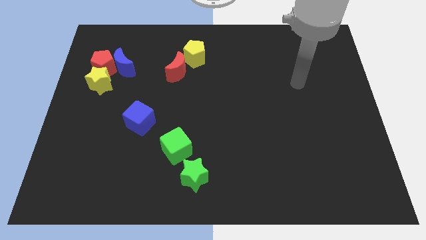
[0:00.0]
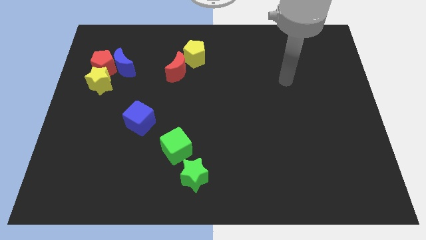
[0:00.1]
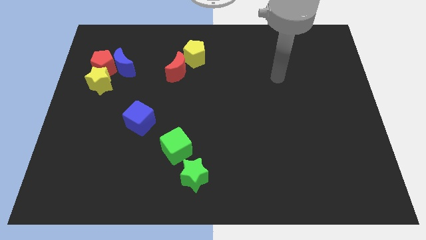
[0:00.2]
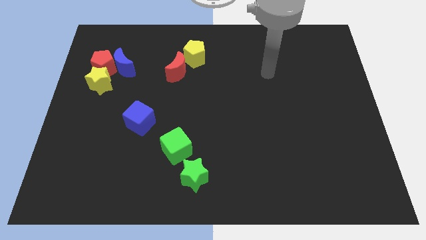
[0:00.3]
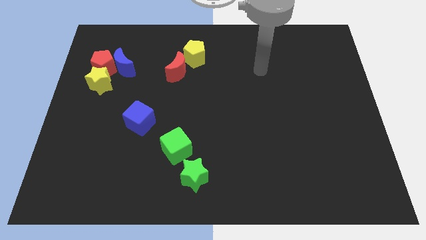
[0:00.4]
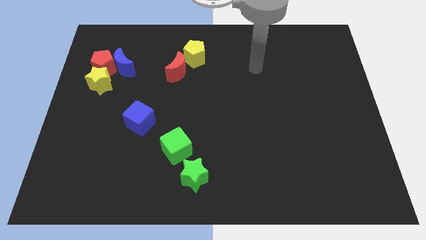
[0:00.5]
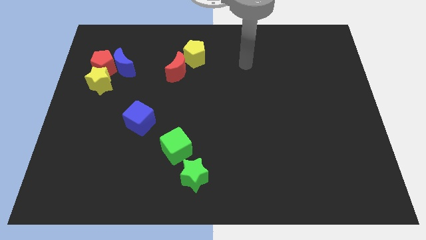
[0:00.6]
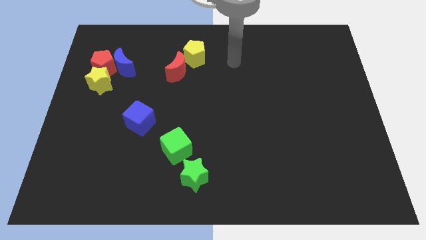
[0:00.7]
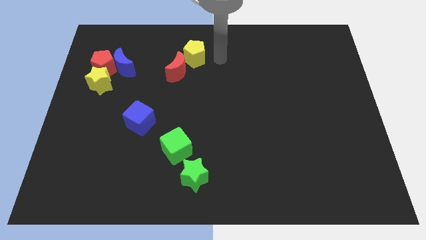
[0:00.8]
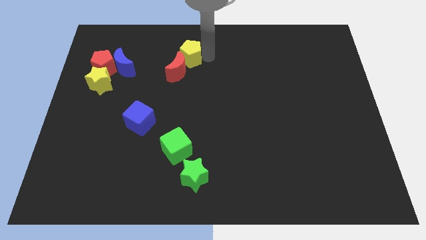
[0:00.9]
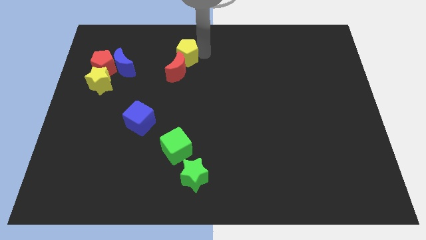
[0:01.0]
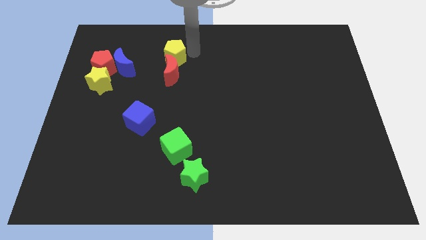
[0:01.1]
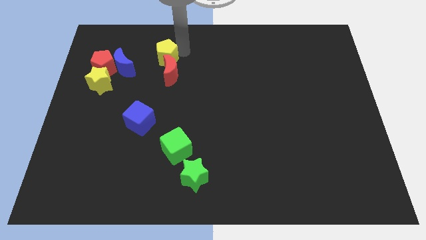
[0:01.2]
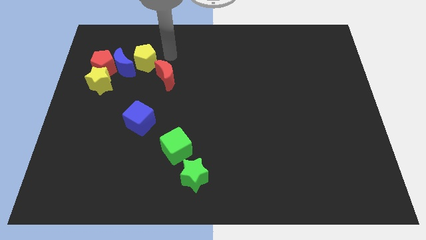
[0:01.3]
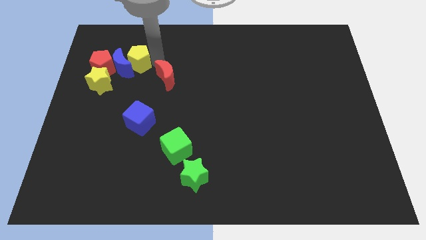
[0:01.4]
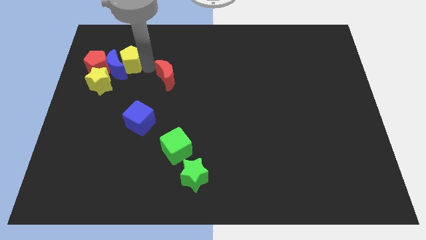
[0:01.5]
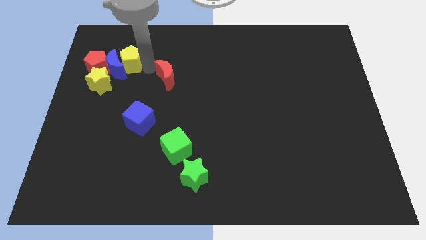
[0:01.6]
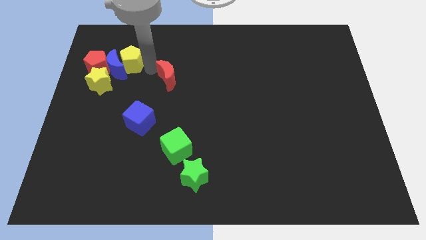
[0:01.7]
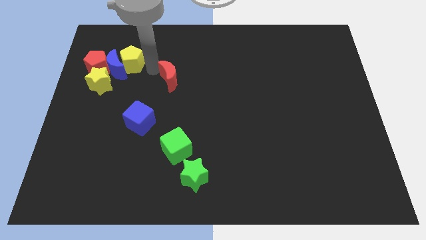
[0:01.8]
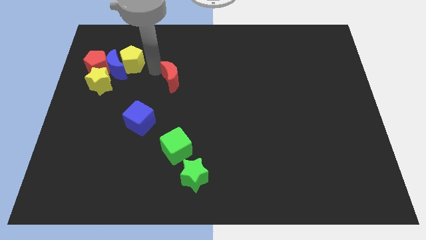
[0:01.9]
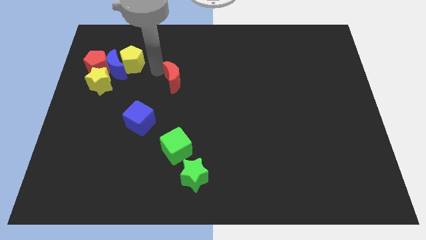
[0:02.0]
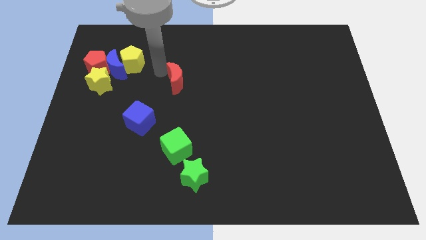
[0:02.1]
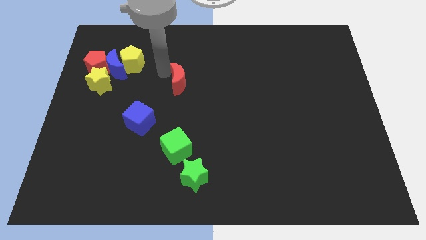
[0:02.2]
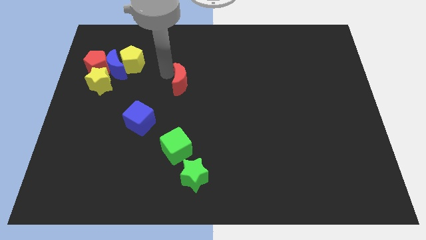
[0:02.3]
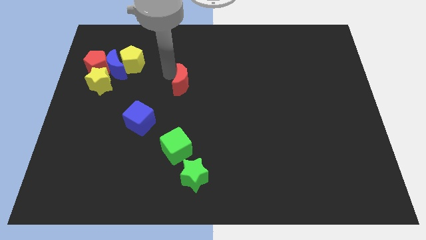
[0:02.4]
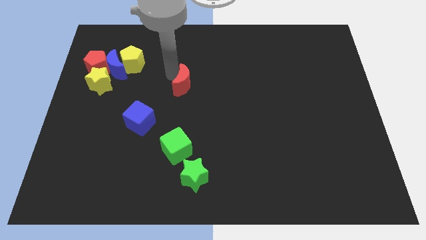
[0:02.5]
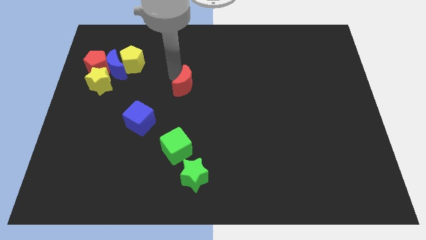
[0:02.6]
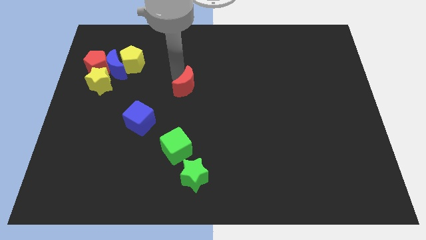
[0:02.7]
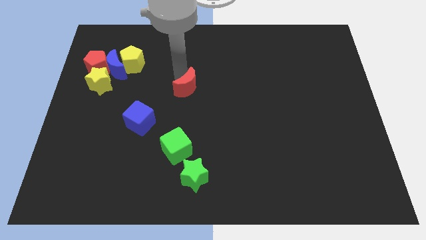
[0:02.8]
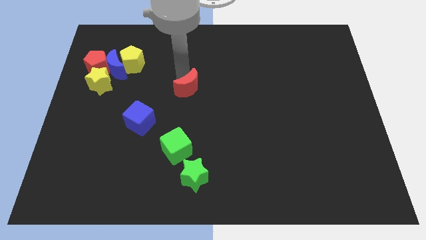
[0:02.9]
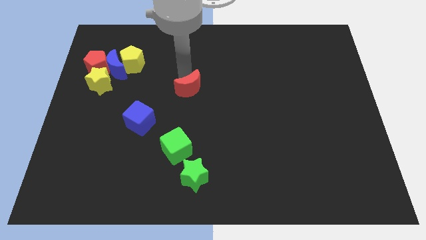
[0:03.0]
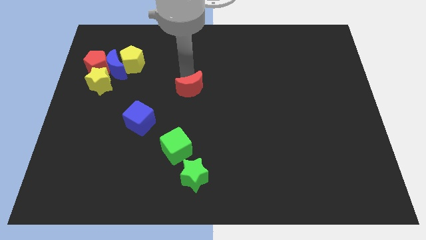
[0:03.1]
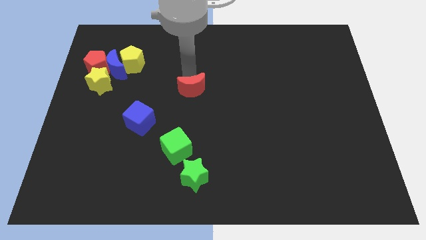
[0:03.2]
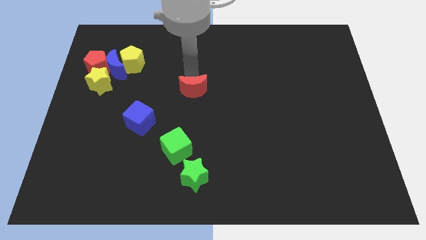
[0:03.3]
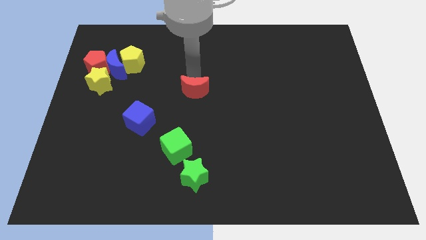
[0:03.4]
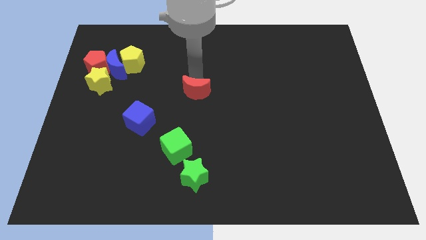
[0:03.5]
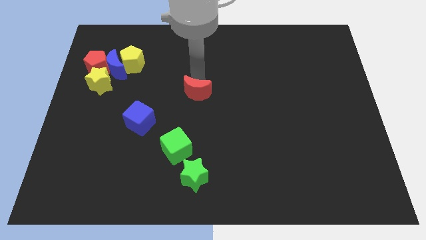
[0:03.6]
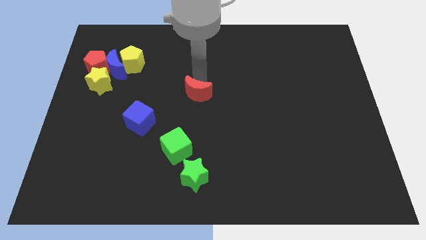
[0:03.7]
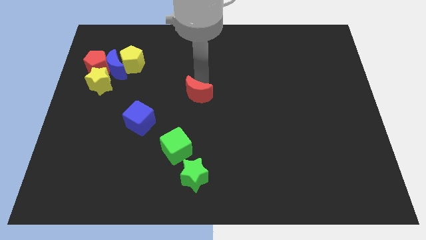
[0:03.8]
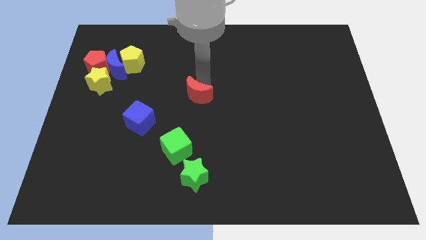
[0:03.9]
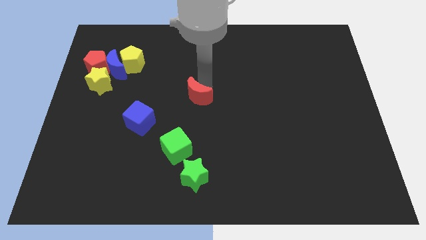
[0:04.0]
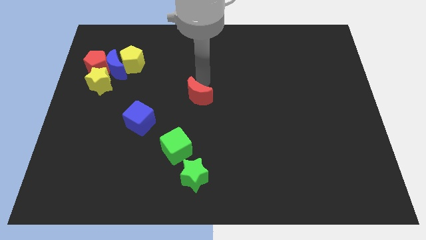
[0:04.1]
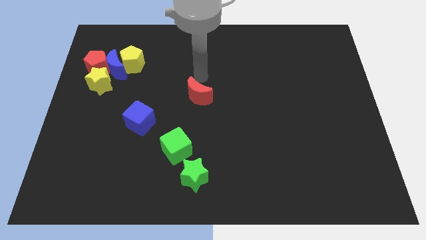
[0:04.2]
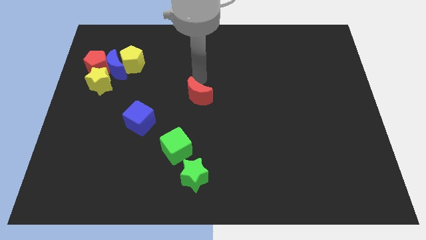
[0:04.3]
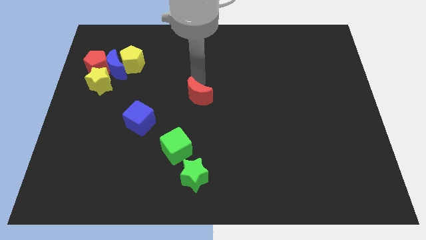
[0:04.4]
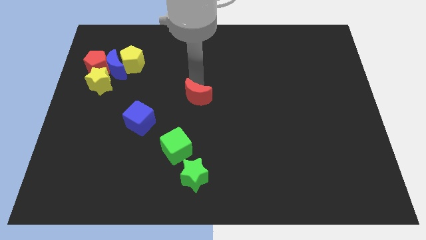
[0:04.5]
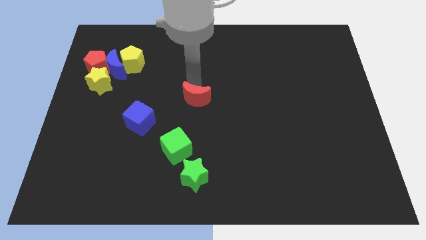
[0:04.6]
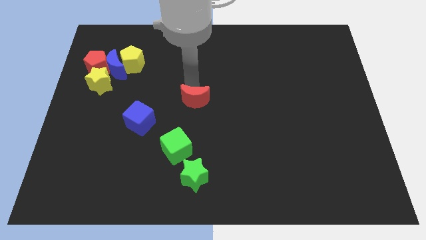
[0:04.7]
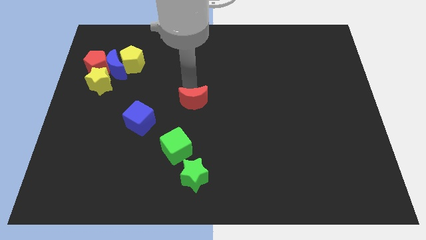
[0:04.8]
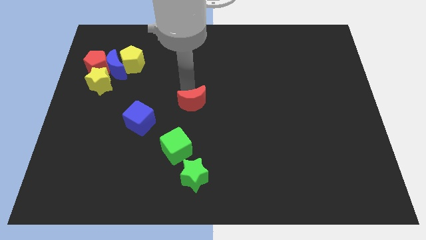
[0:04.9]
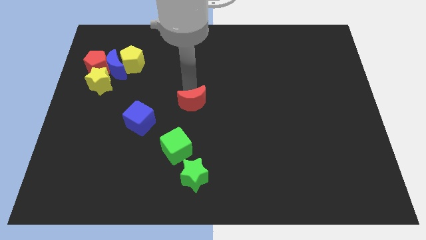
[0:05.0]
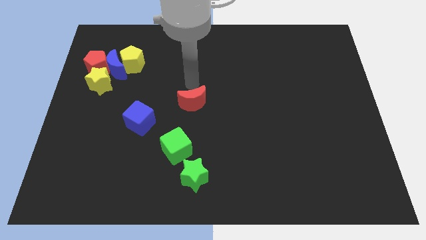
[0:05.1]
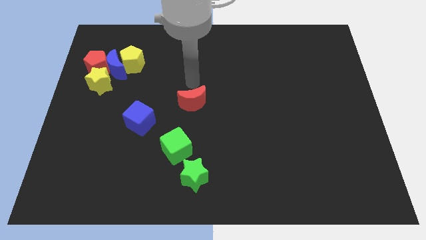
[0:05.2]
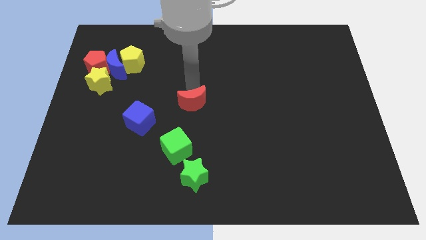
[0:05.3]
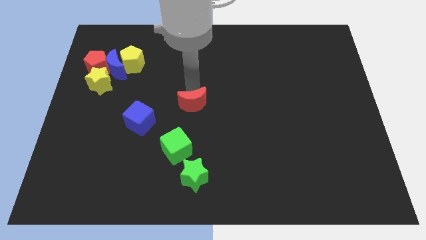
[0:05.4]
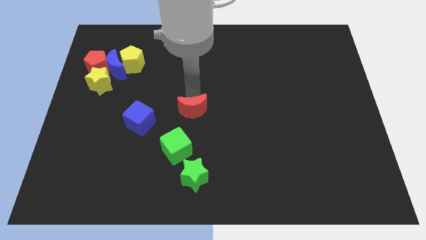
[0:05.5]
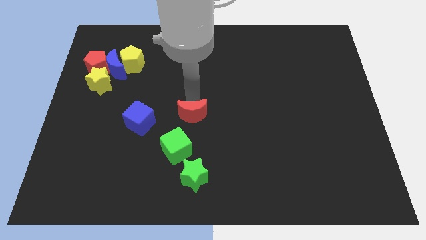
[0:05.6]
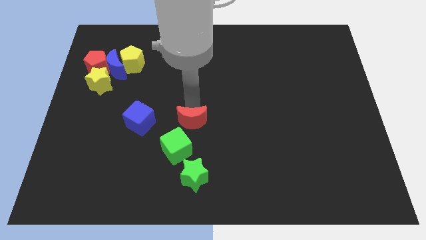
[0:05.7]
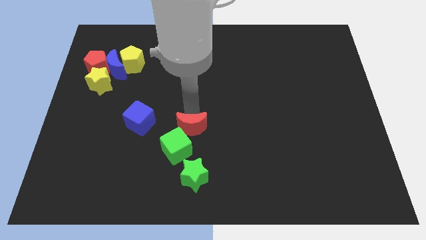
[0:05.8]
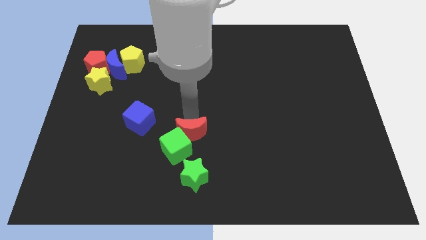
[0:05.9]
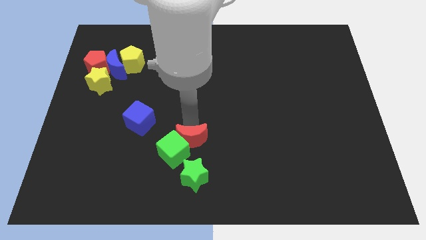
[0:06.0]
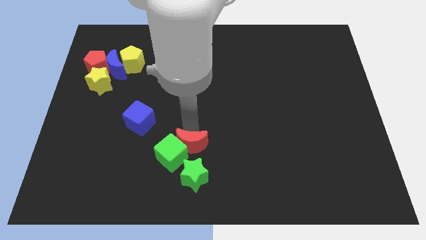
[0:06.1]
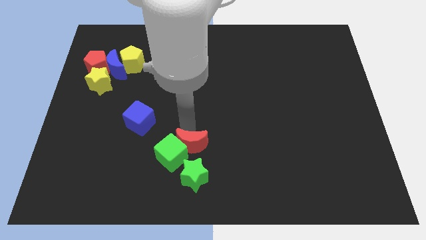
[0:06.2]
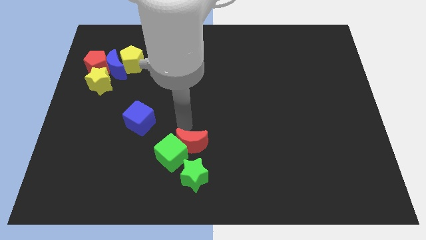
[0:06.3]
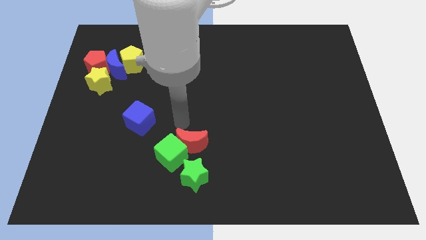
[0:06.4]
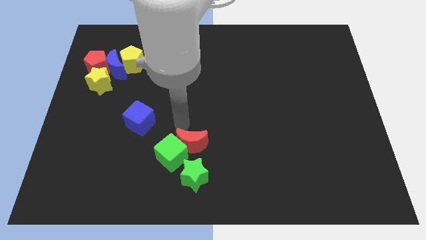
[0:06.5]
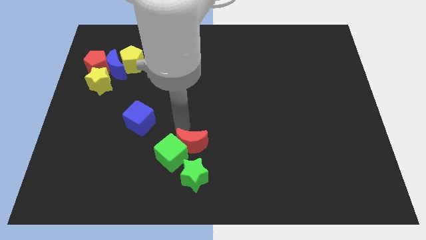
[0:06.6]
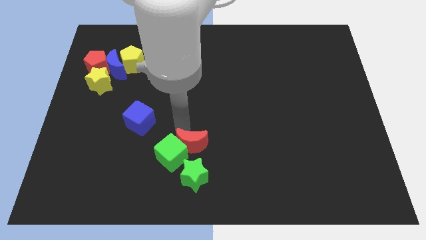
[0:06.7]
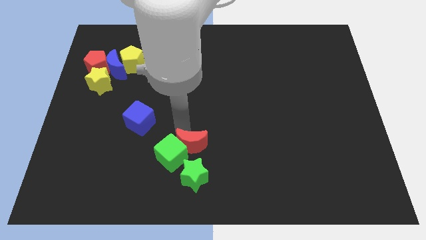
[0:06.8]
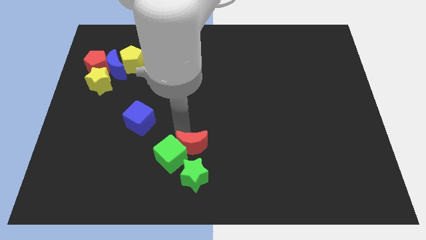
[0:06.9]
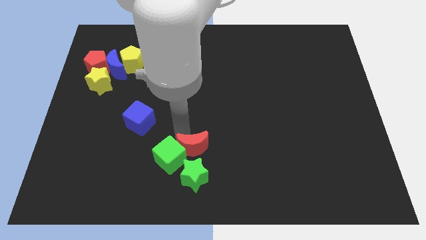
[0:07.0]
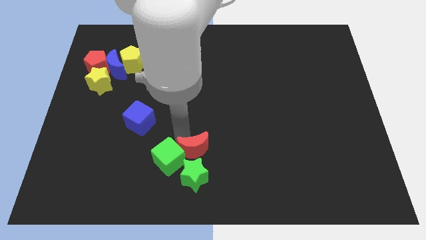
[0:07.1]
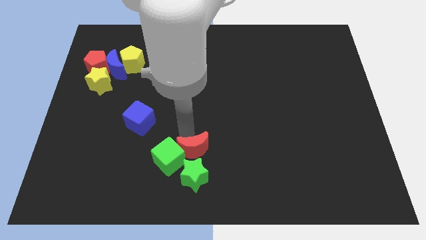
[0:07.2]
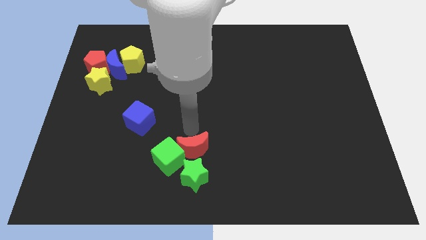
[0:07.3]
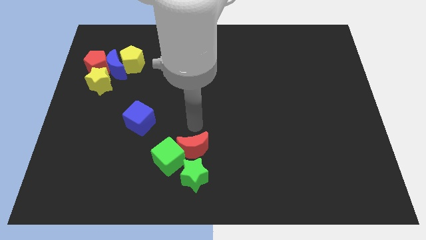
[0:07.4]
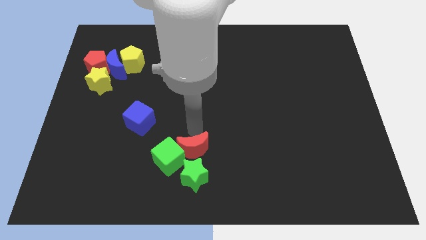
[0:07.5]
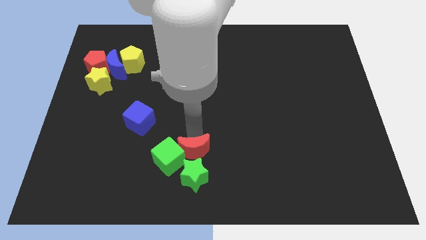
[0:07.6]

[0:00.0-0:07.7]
move the red moon towards the green star
